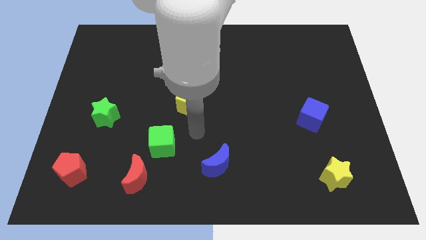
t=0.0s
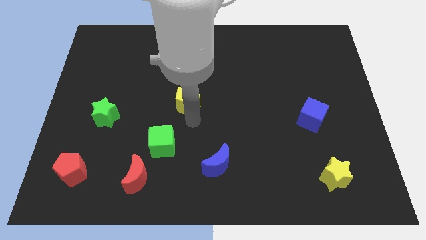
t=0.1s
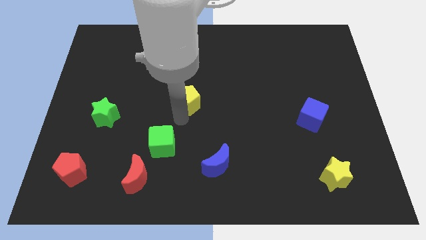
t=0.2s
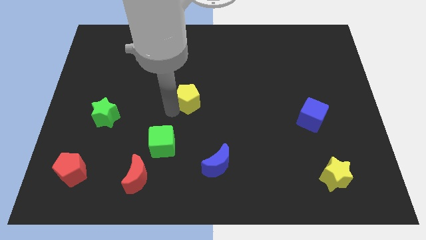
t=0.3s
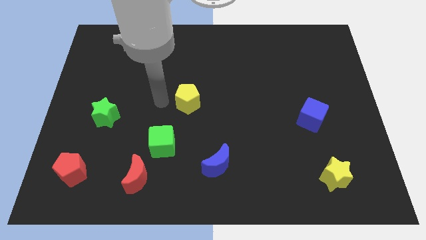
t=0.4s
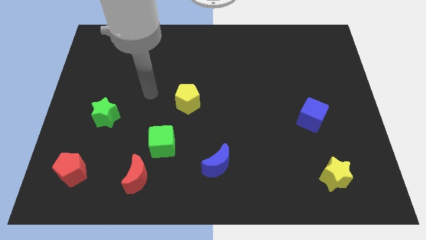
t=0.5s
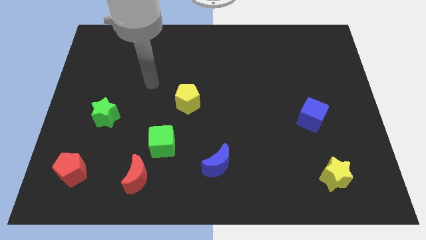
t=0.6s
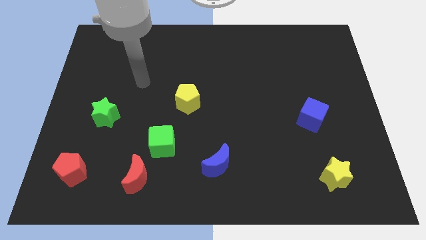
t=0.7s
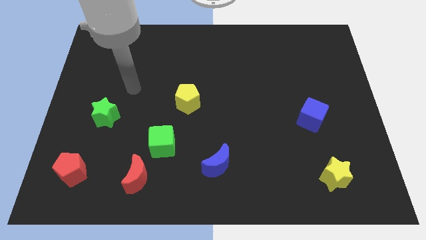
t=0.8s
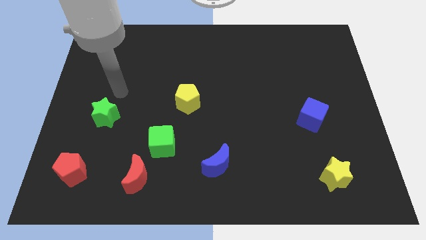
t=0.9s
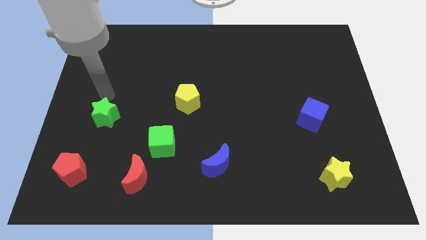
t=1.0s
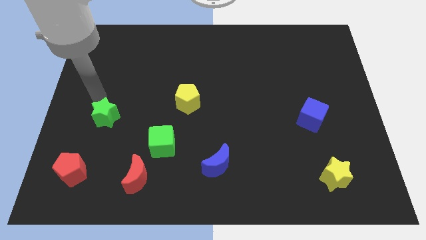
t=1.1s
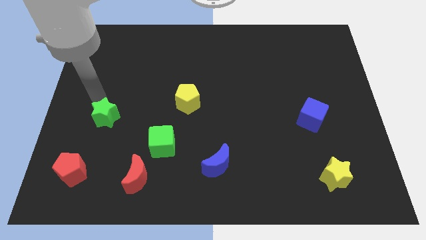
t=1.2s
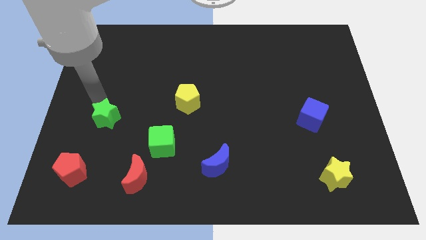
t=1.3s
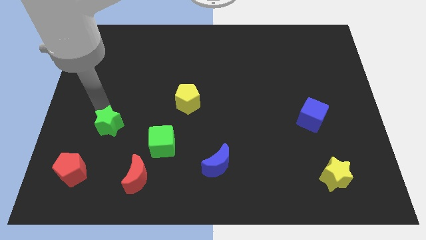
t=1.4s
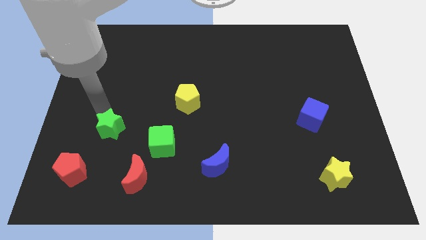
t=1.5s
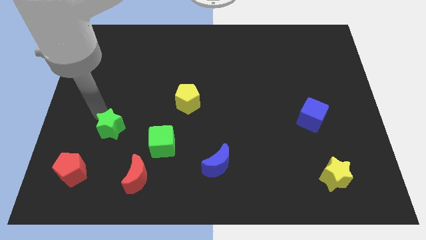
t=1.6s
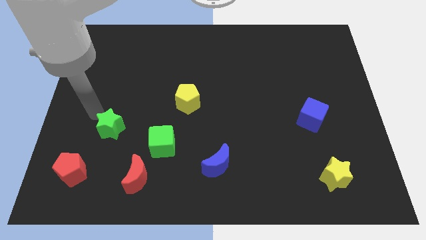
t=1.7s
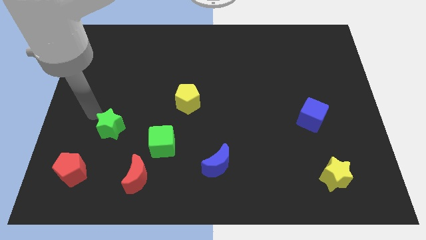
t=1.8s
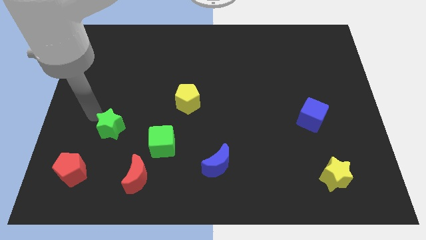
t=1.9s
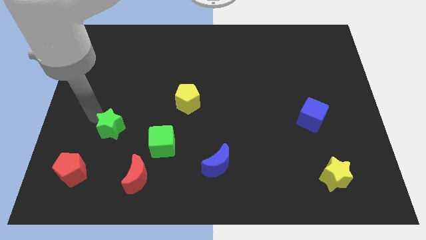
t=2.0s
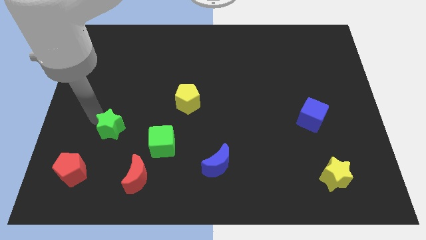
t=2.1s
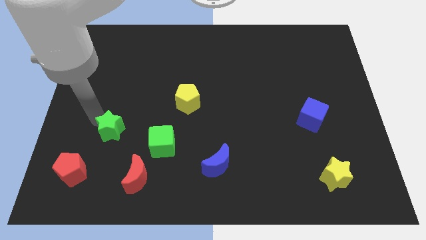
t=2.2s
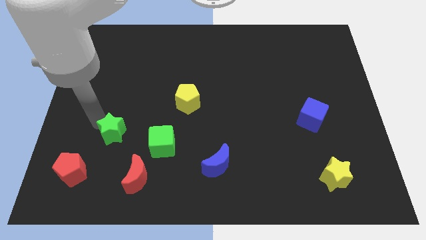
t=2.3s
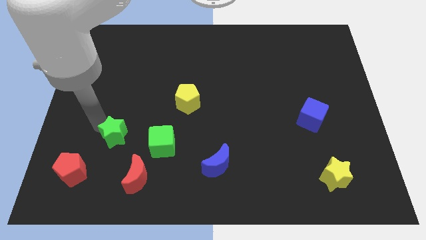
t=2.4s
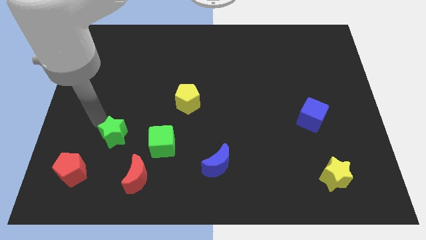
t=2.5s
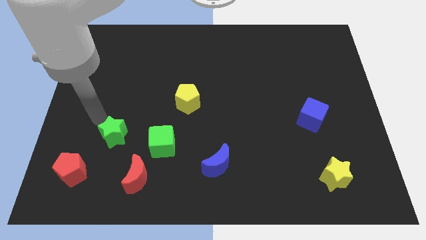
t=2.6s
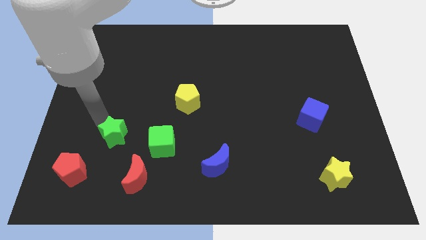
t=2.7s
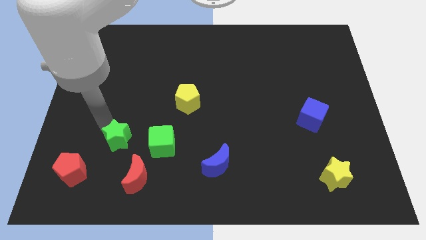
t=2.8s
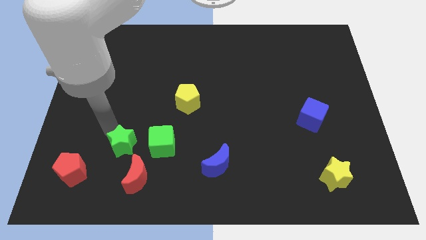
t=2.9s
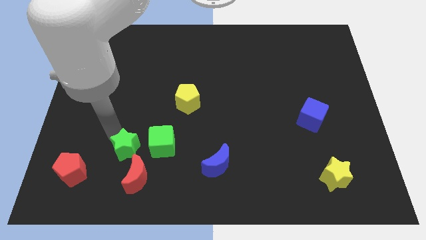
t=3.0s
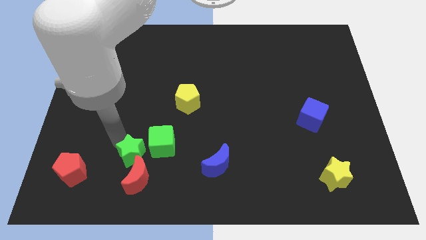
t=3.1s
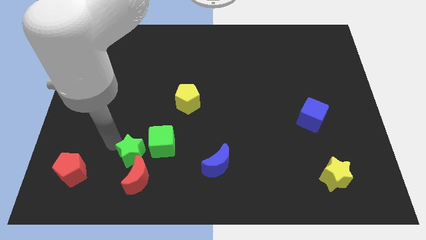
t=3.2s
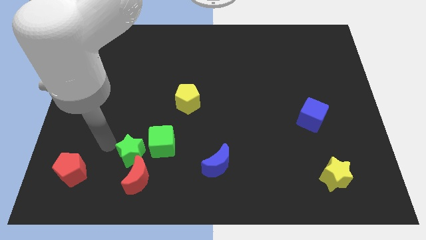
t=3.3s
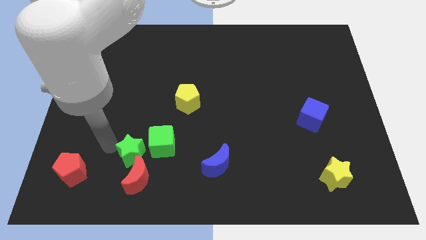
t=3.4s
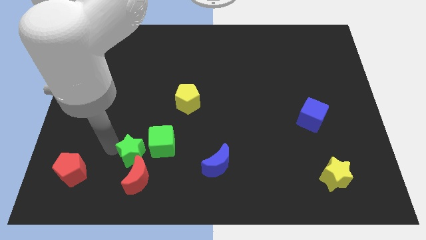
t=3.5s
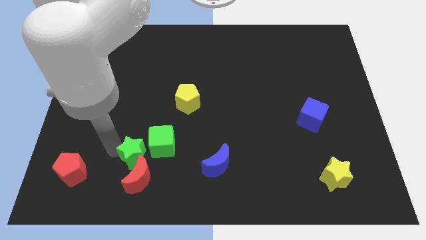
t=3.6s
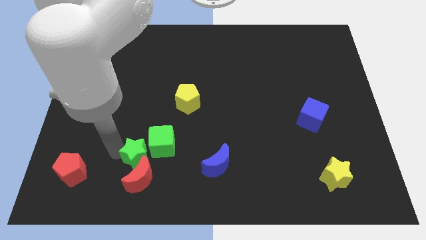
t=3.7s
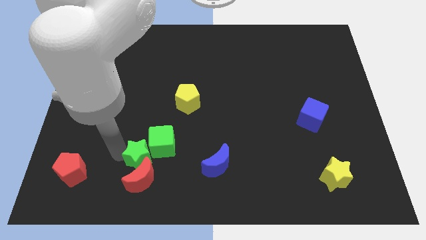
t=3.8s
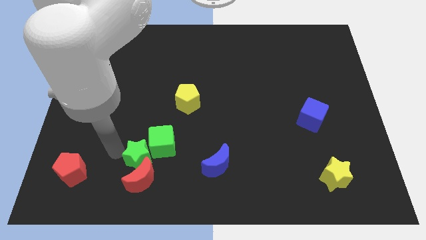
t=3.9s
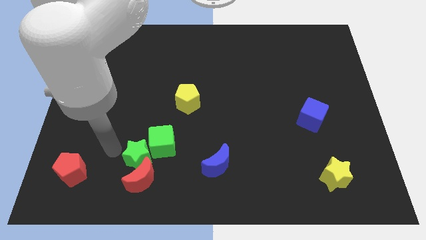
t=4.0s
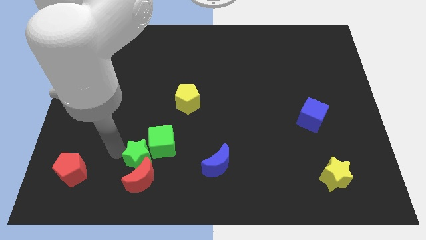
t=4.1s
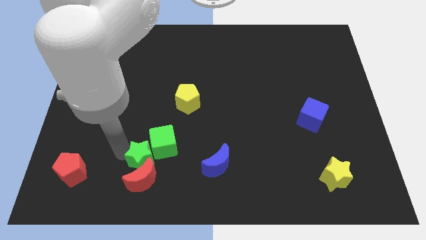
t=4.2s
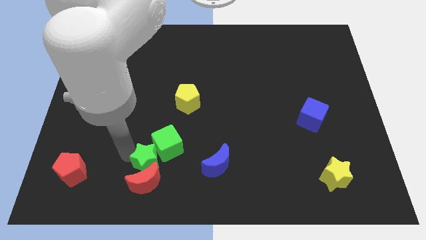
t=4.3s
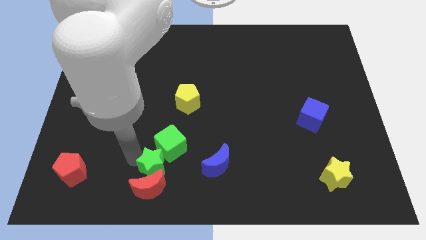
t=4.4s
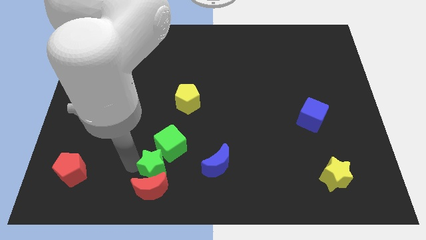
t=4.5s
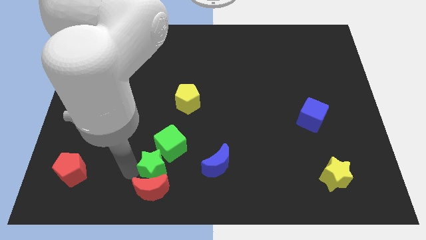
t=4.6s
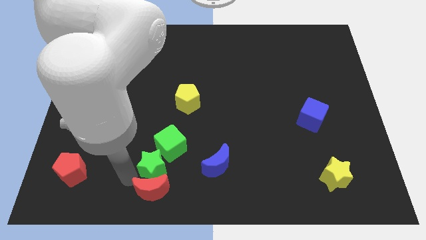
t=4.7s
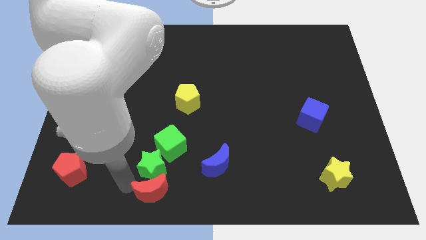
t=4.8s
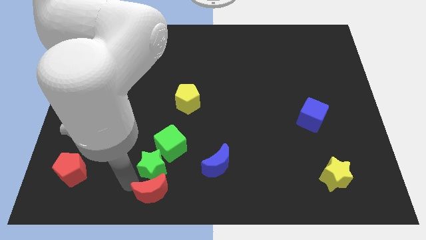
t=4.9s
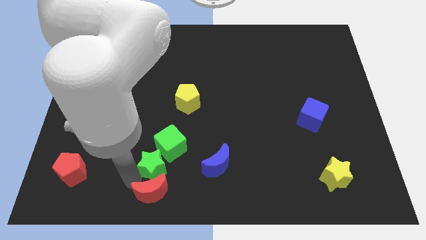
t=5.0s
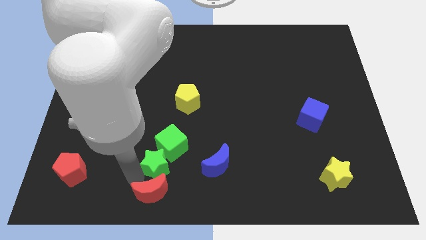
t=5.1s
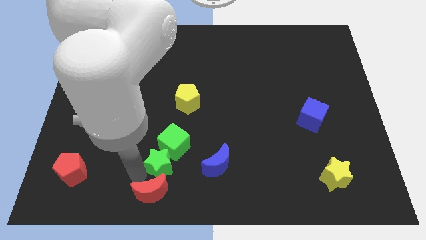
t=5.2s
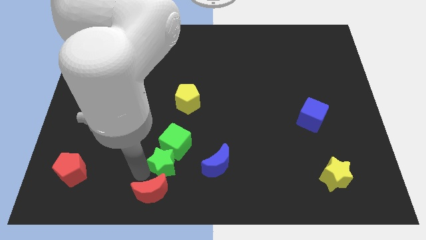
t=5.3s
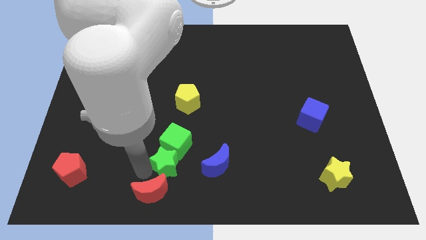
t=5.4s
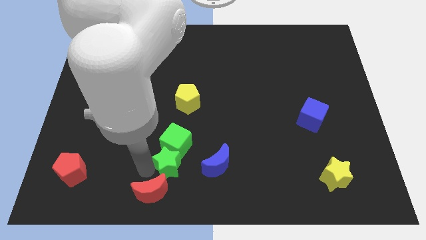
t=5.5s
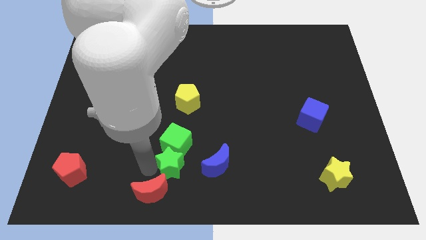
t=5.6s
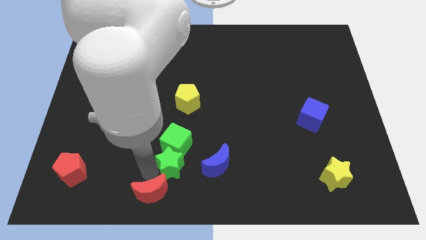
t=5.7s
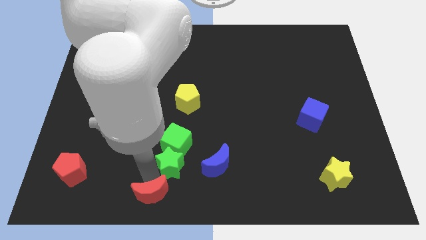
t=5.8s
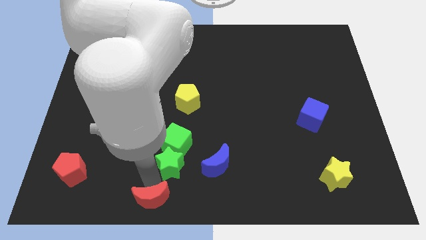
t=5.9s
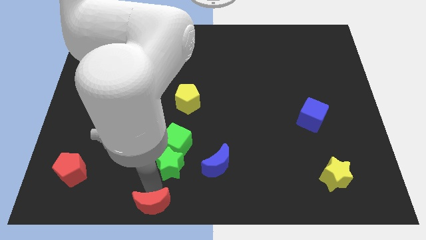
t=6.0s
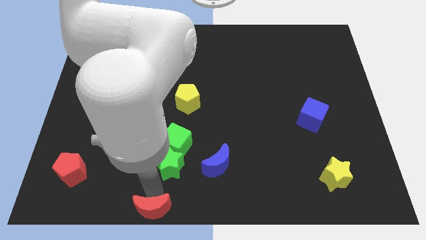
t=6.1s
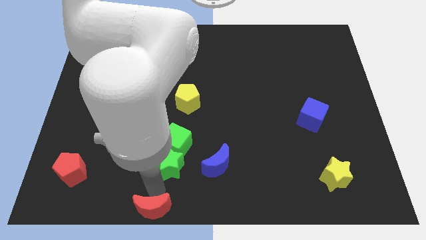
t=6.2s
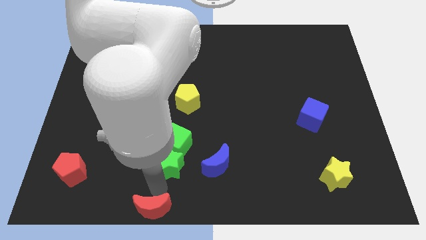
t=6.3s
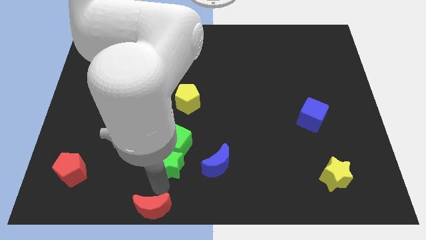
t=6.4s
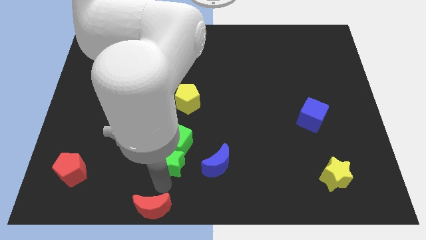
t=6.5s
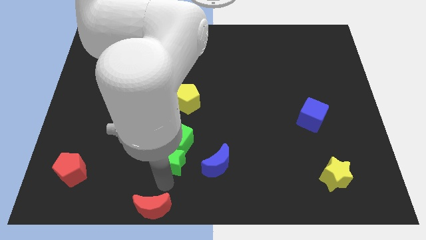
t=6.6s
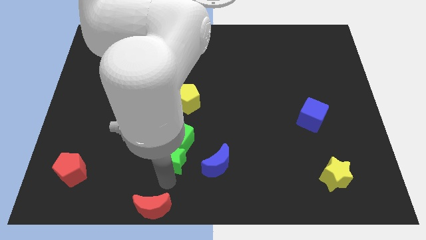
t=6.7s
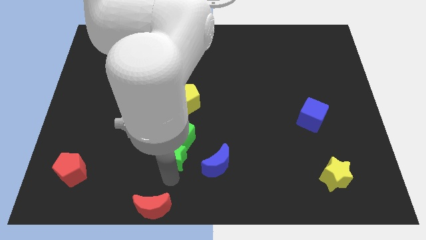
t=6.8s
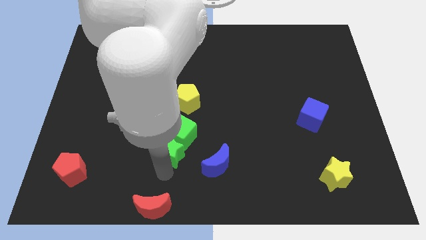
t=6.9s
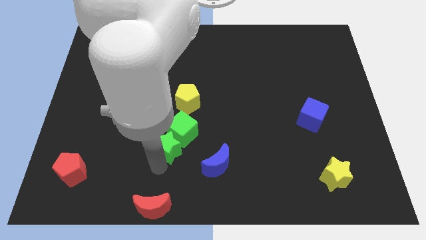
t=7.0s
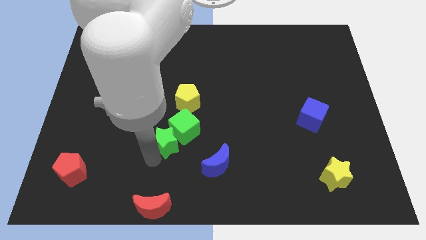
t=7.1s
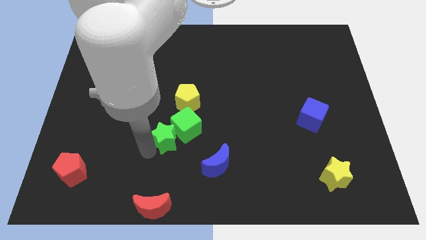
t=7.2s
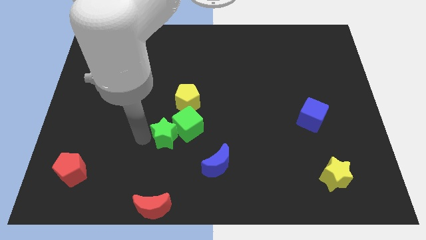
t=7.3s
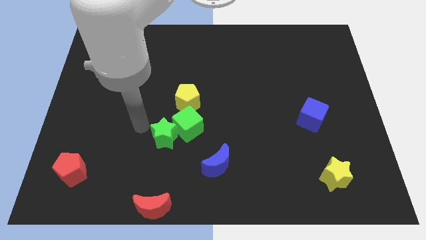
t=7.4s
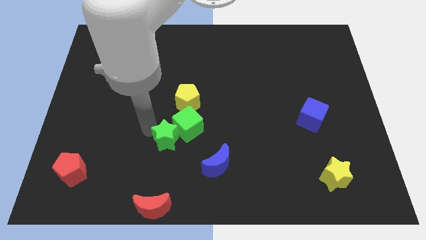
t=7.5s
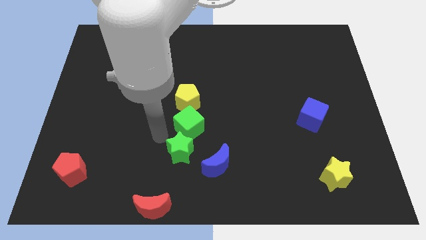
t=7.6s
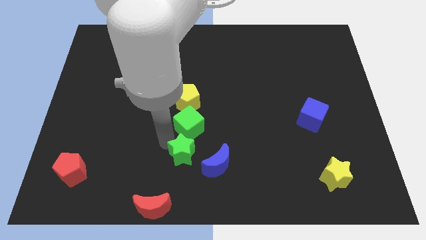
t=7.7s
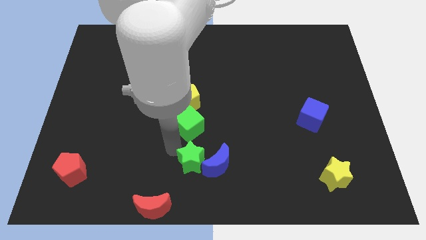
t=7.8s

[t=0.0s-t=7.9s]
put the green star towards the blue moon
